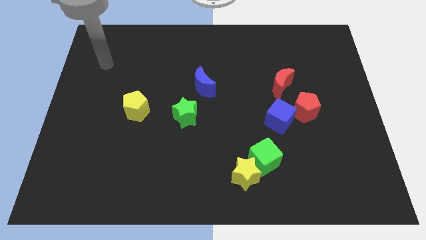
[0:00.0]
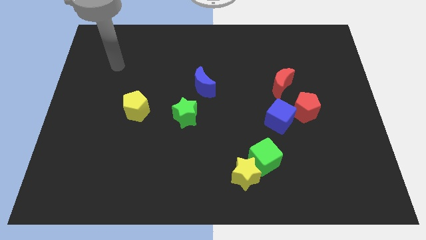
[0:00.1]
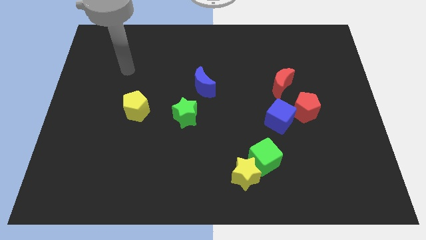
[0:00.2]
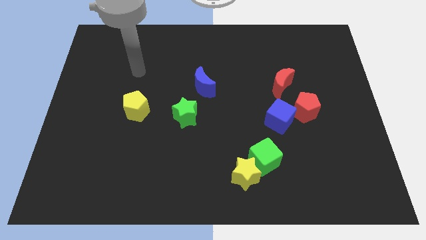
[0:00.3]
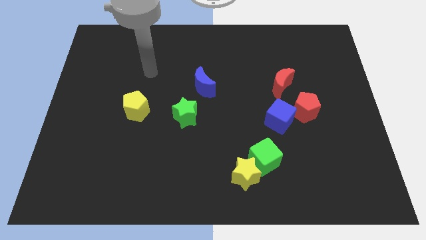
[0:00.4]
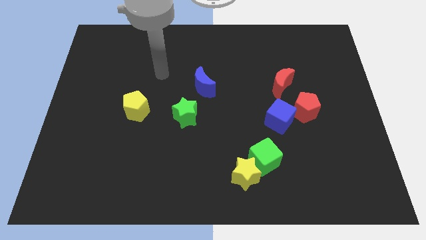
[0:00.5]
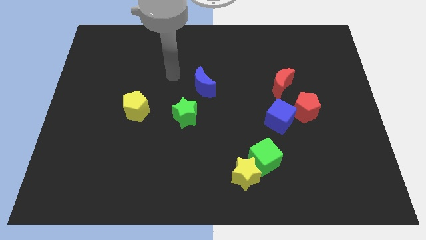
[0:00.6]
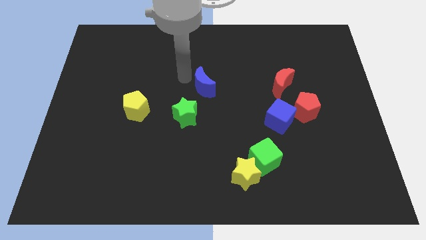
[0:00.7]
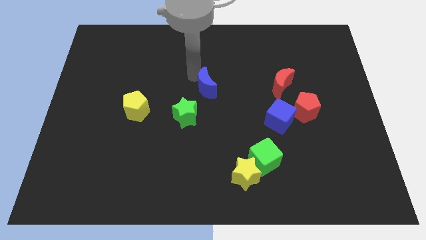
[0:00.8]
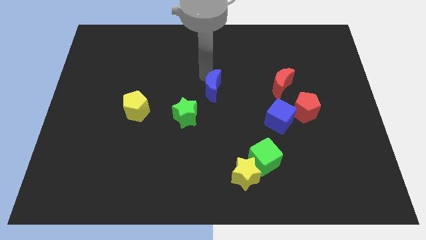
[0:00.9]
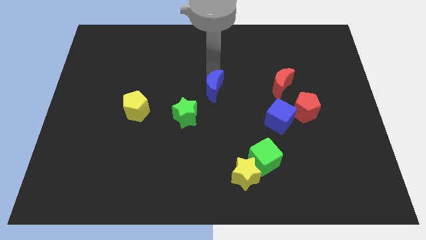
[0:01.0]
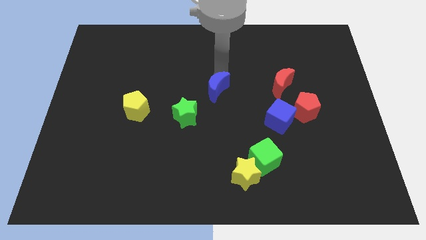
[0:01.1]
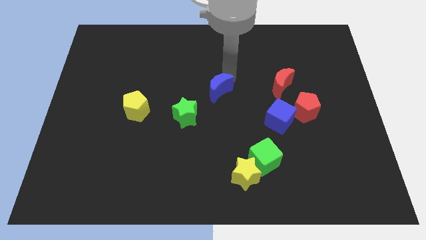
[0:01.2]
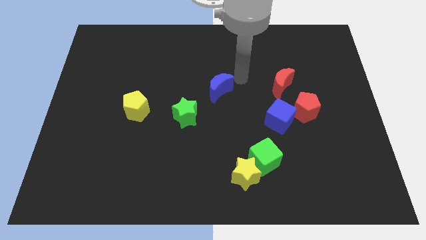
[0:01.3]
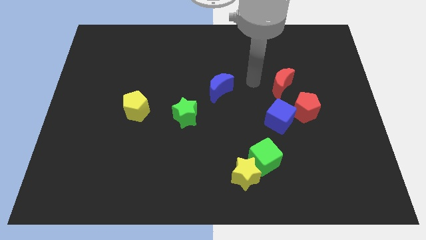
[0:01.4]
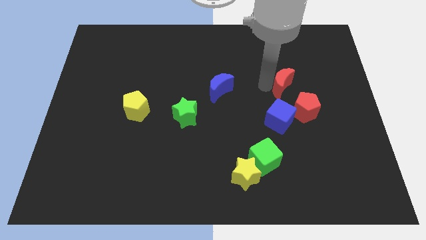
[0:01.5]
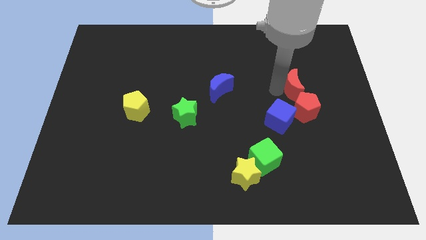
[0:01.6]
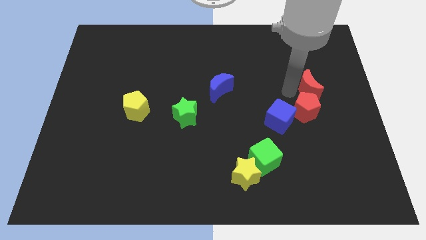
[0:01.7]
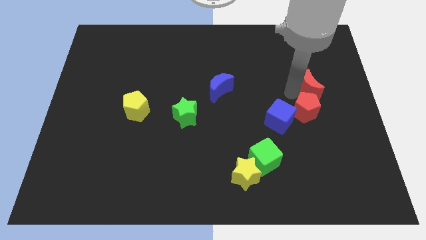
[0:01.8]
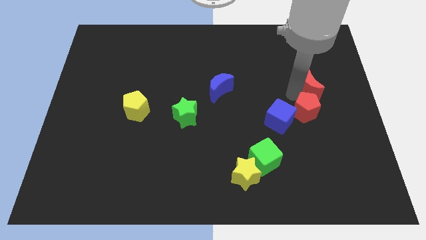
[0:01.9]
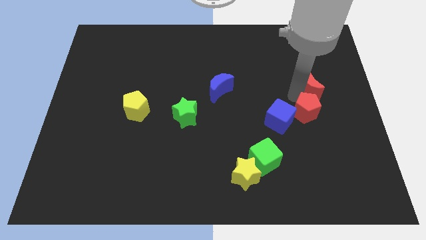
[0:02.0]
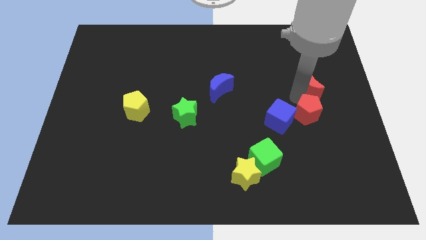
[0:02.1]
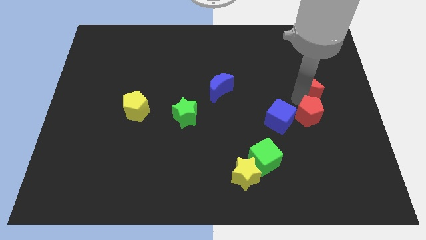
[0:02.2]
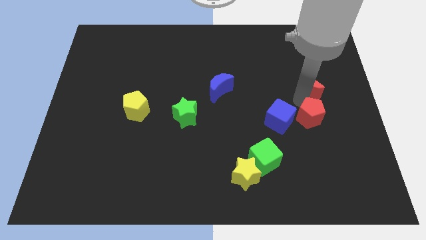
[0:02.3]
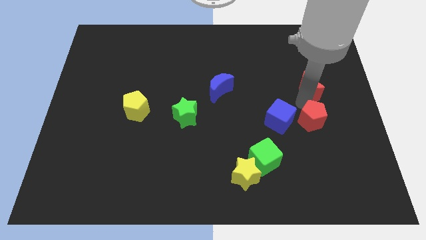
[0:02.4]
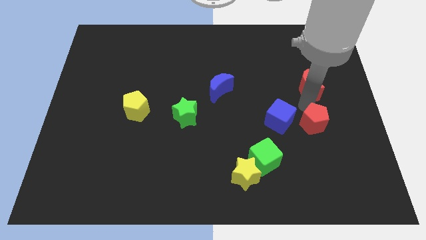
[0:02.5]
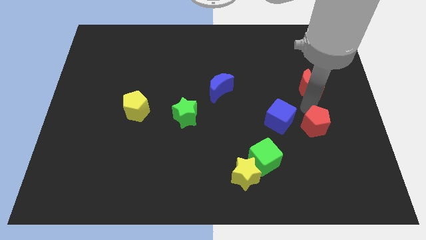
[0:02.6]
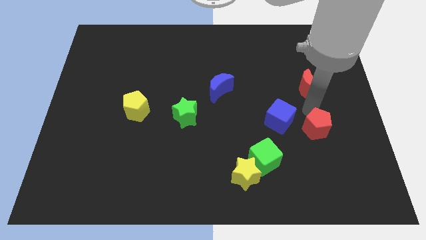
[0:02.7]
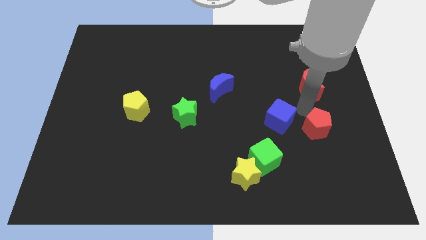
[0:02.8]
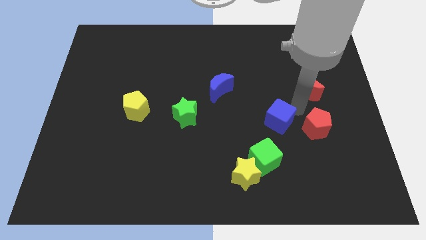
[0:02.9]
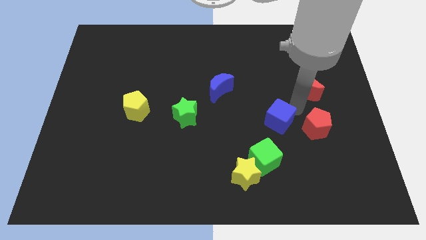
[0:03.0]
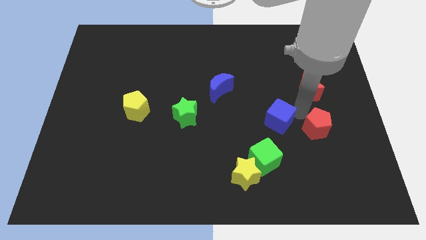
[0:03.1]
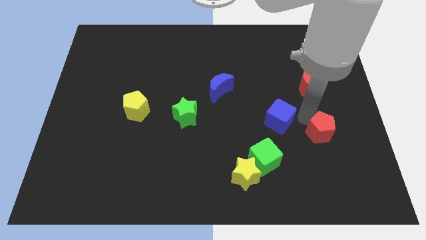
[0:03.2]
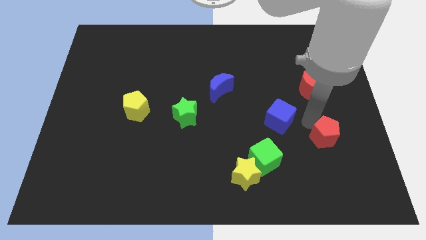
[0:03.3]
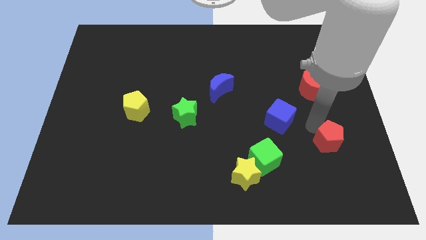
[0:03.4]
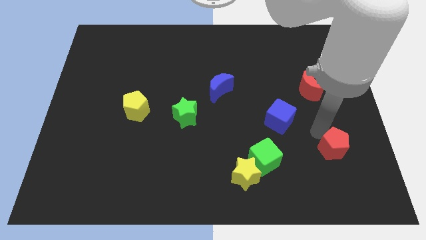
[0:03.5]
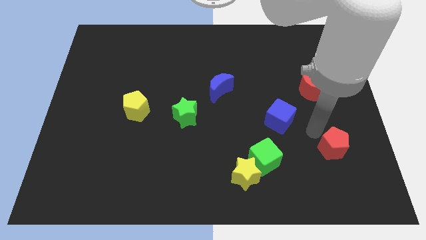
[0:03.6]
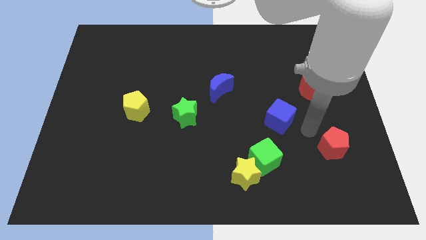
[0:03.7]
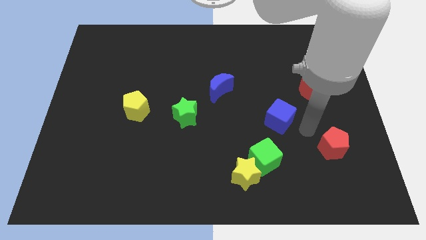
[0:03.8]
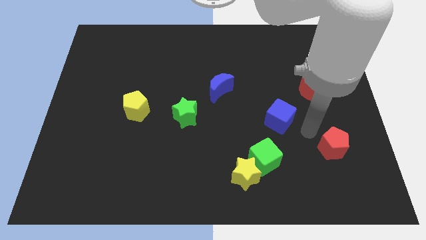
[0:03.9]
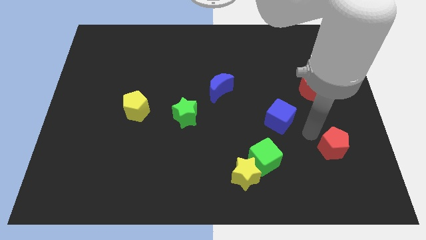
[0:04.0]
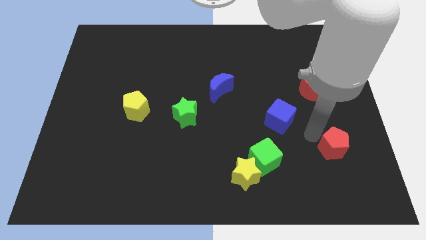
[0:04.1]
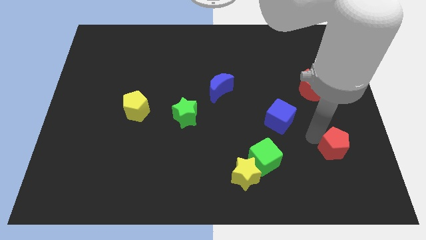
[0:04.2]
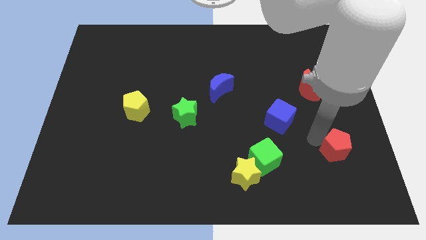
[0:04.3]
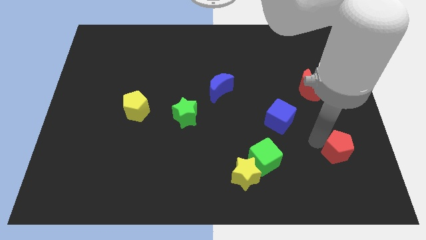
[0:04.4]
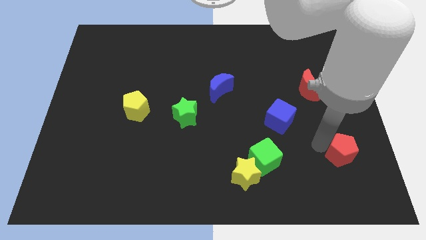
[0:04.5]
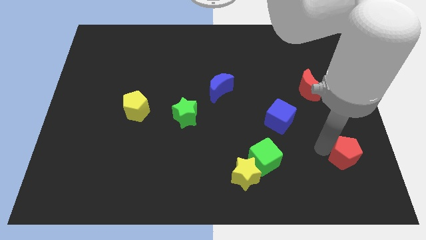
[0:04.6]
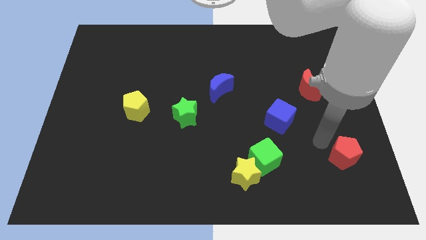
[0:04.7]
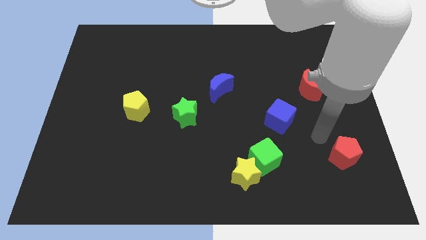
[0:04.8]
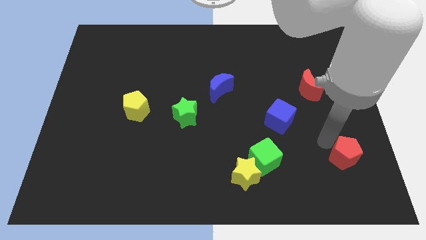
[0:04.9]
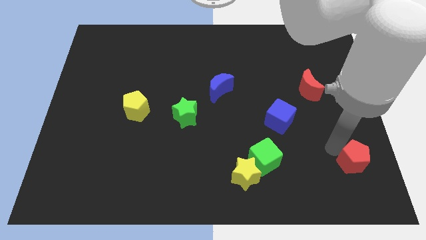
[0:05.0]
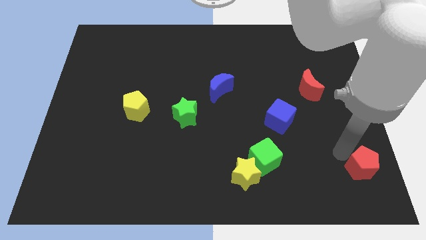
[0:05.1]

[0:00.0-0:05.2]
move the red pentagon to the bottom right corner

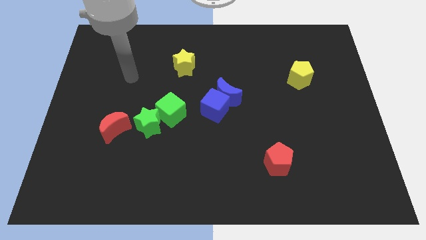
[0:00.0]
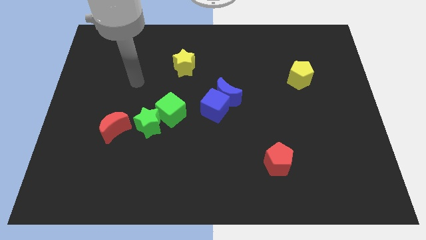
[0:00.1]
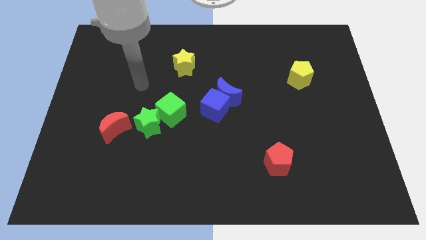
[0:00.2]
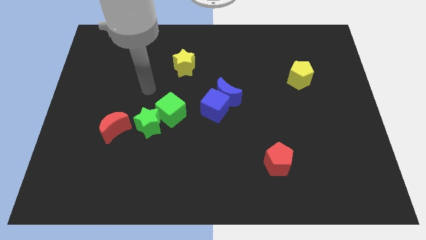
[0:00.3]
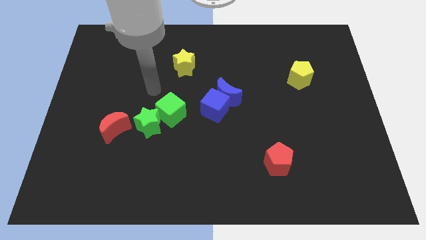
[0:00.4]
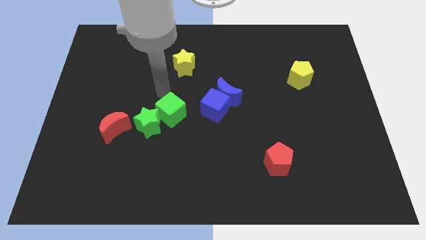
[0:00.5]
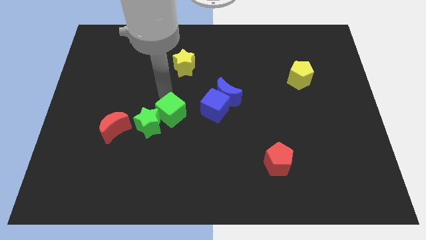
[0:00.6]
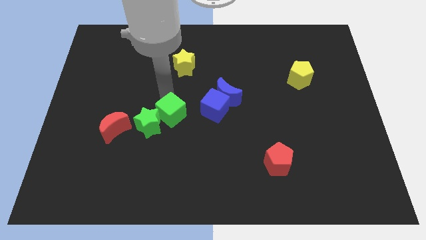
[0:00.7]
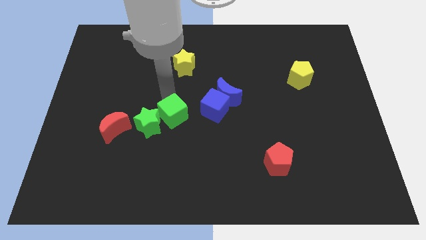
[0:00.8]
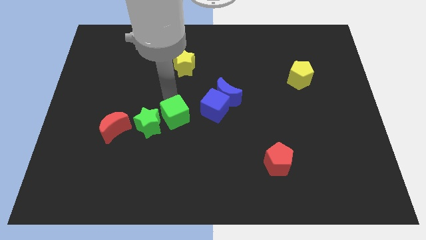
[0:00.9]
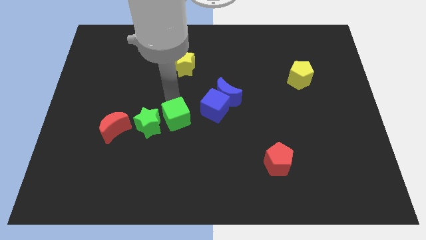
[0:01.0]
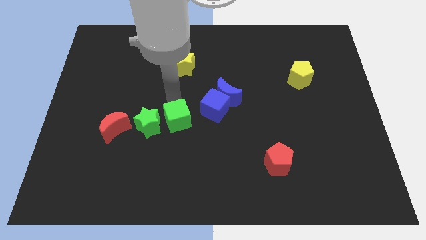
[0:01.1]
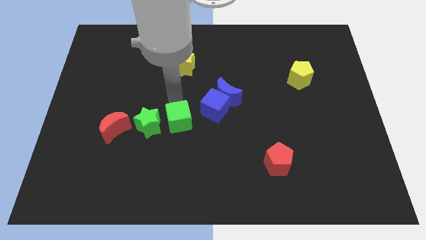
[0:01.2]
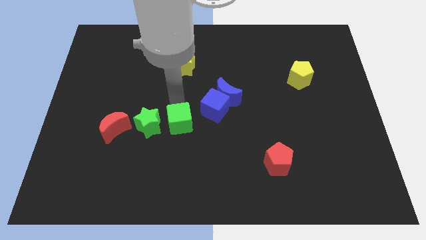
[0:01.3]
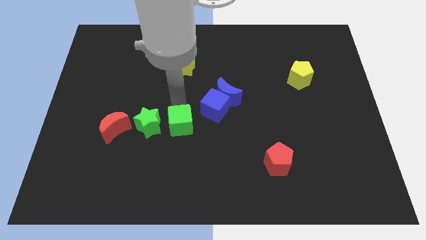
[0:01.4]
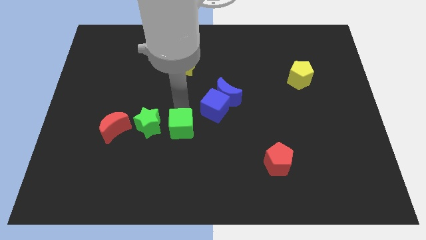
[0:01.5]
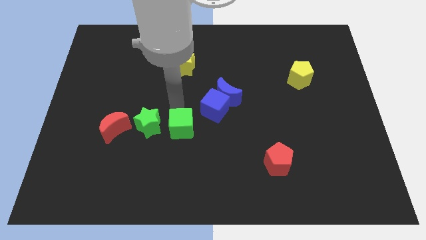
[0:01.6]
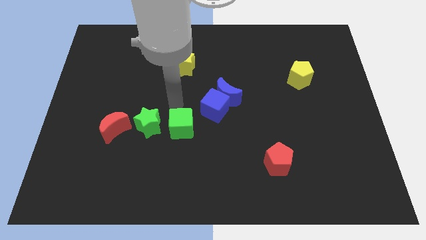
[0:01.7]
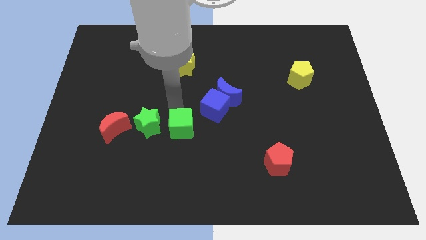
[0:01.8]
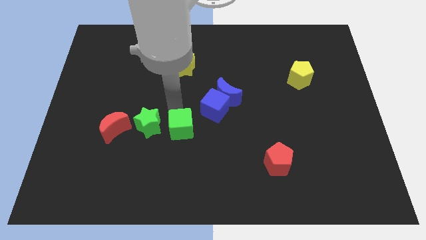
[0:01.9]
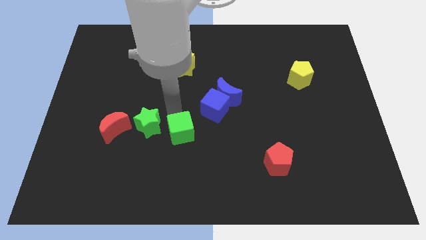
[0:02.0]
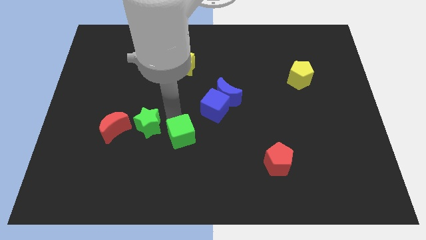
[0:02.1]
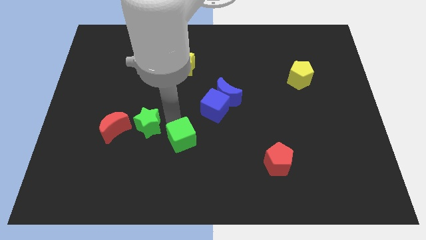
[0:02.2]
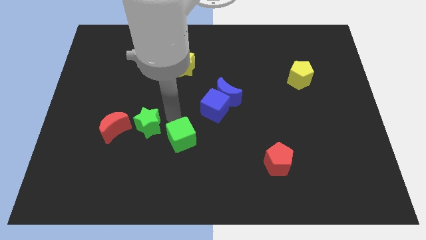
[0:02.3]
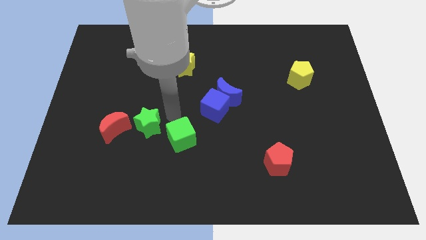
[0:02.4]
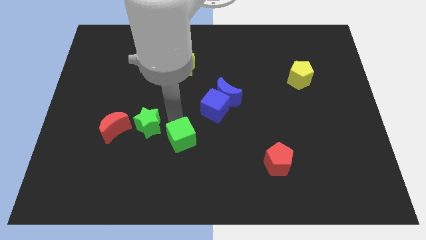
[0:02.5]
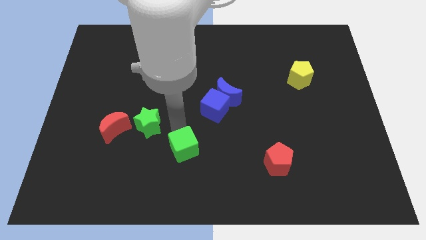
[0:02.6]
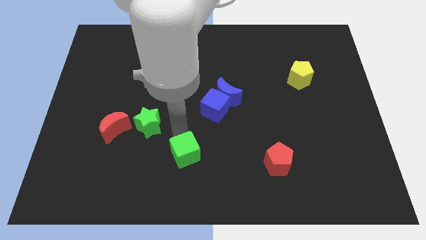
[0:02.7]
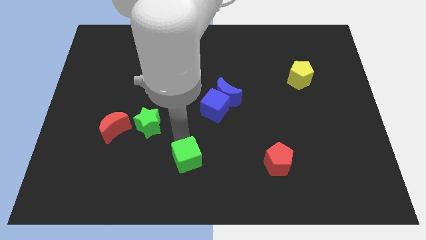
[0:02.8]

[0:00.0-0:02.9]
move the green cube to the bottom
